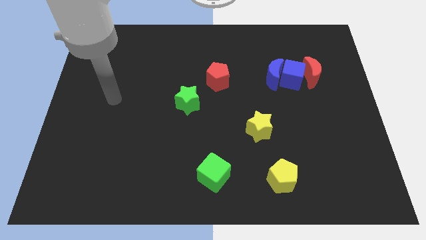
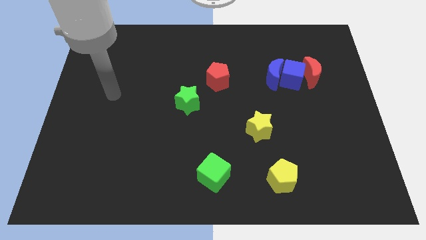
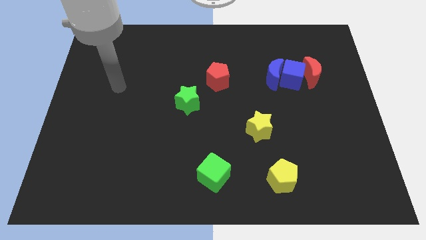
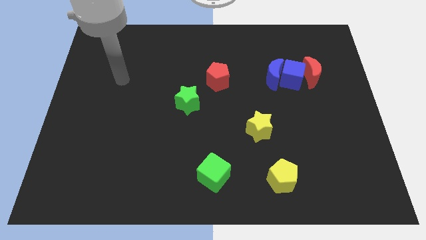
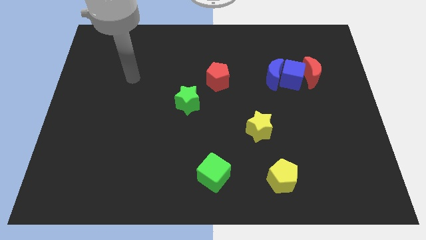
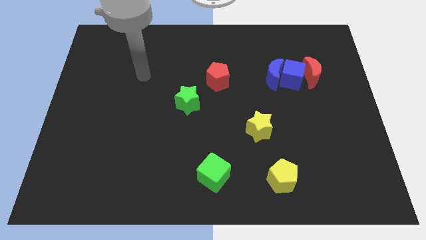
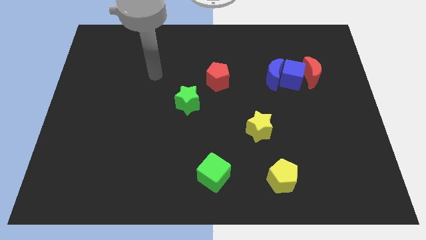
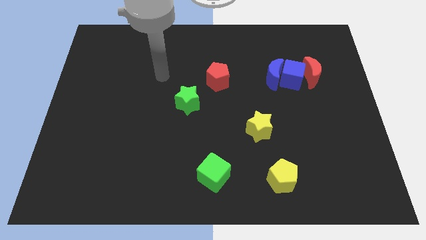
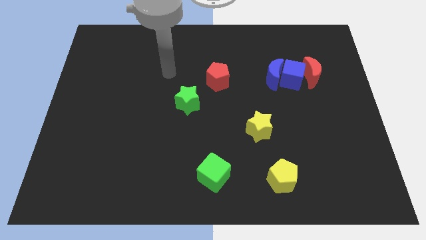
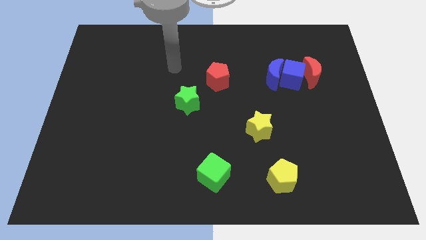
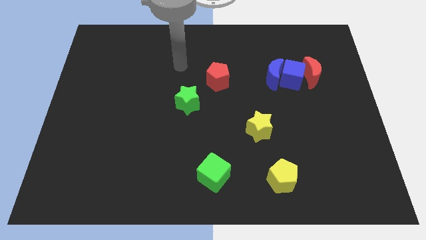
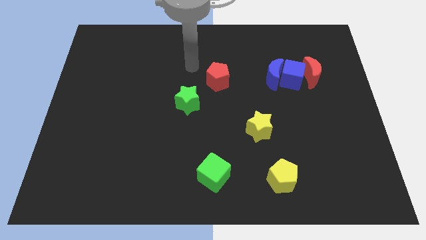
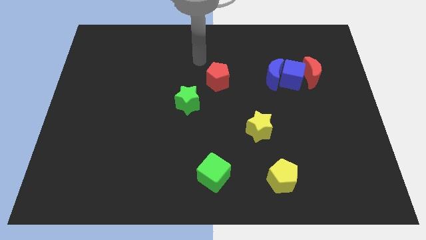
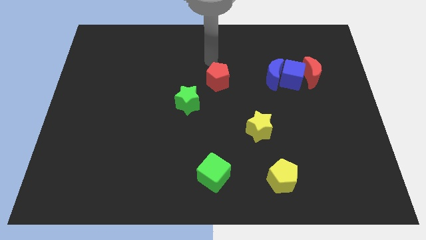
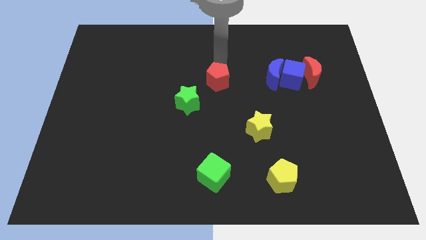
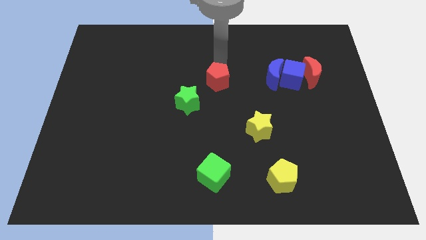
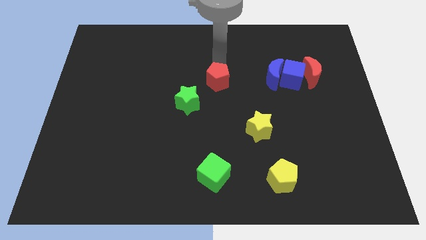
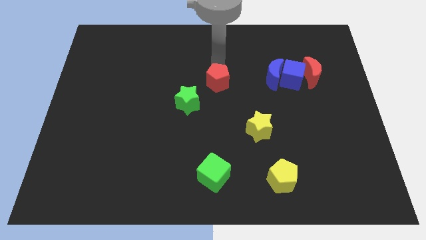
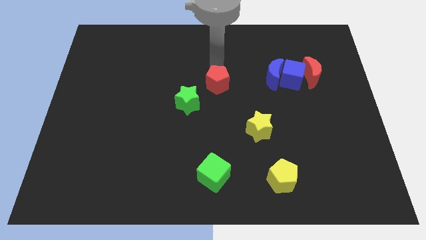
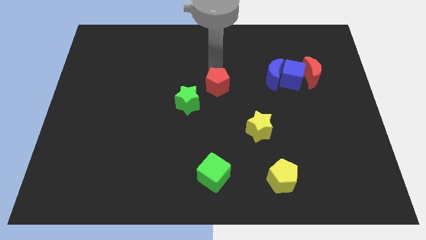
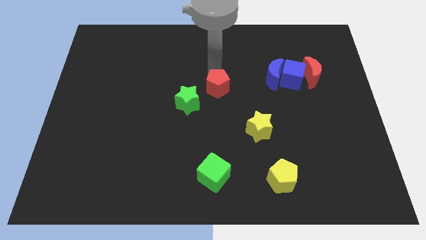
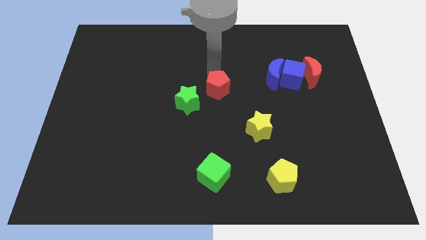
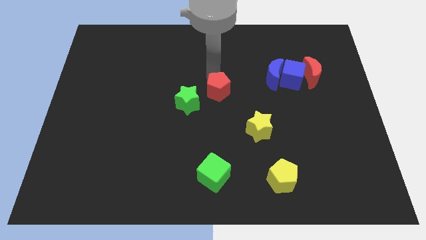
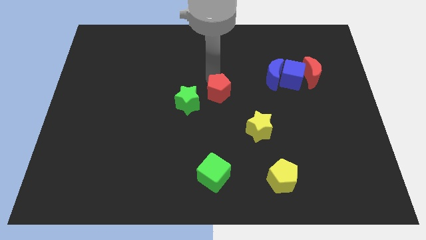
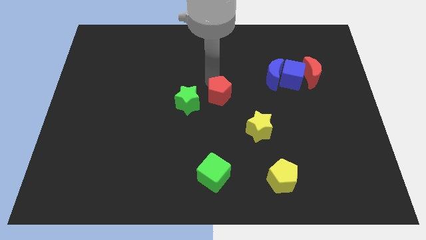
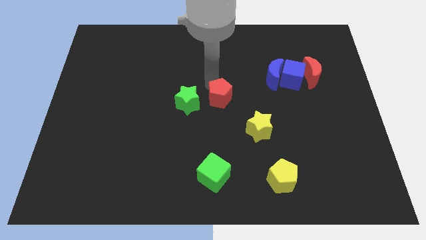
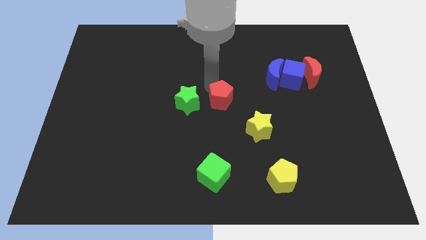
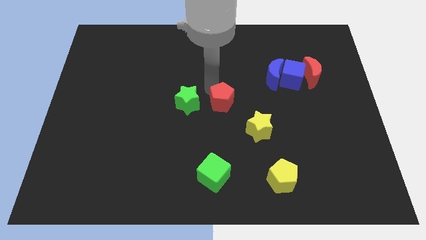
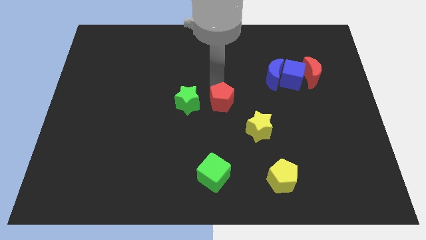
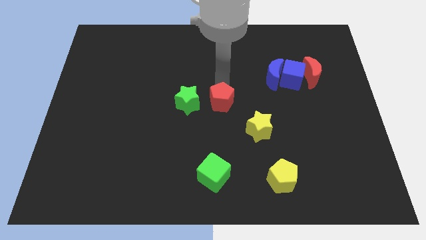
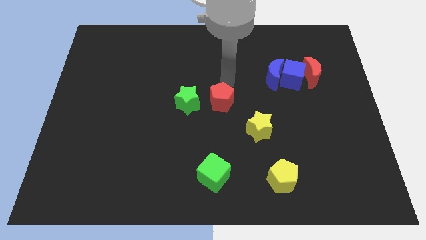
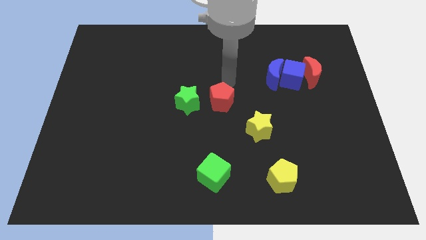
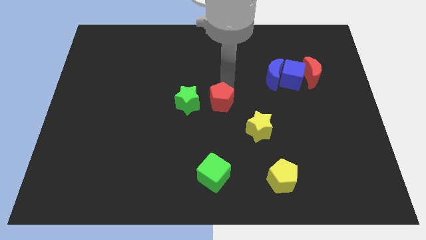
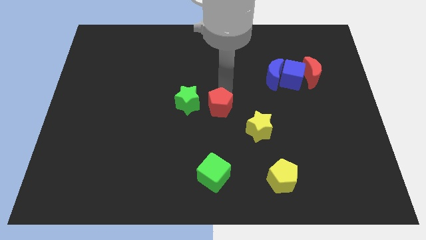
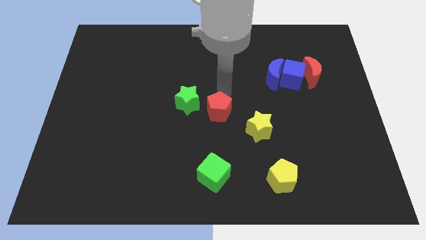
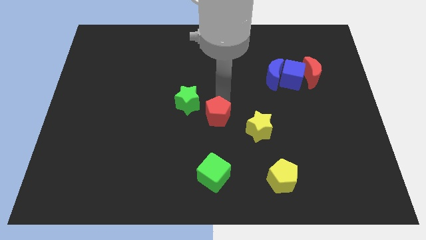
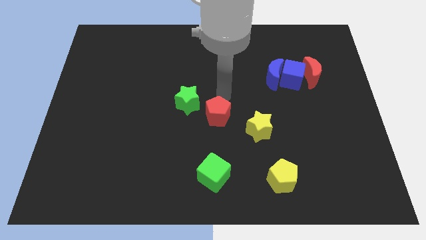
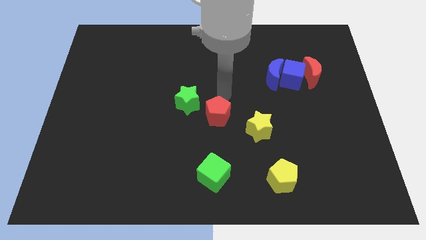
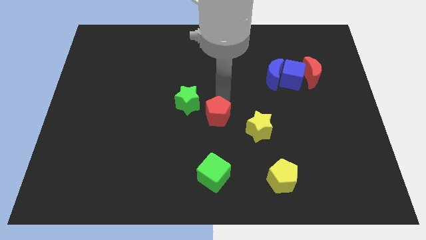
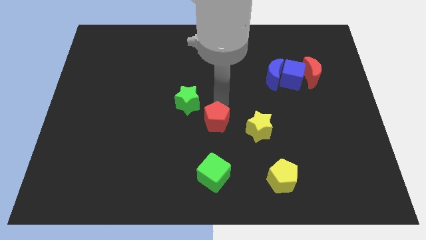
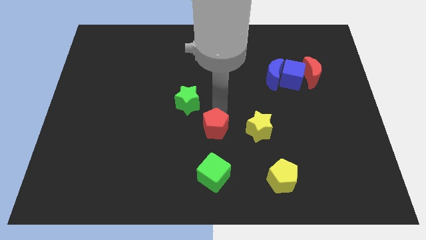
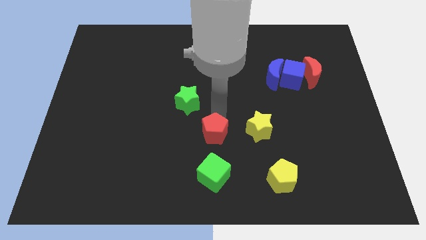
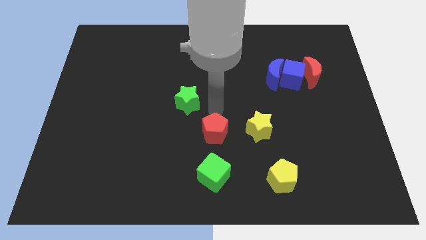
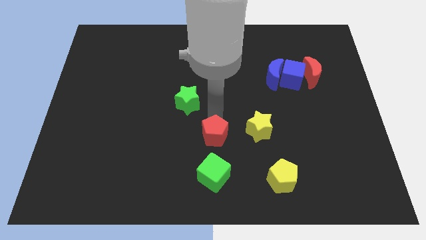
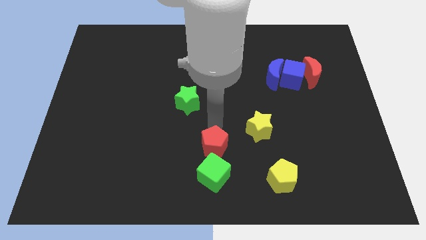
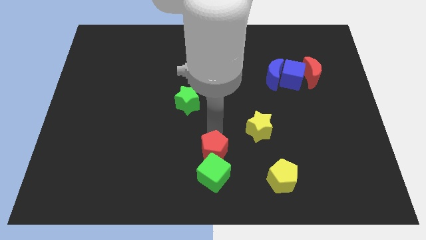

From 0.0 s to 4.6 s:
slide the red pentagon towards the green cube

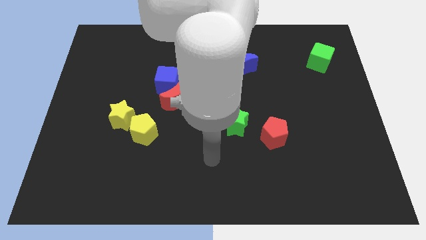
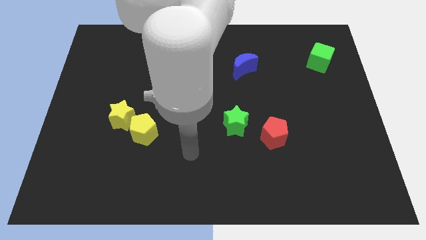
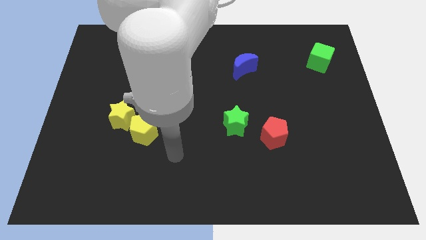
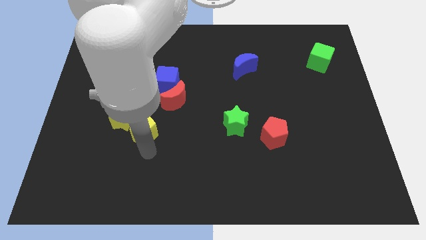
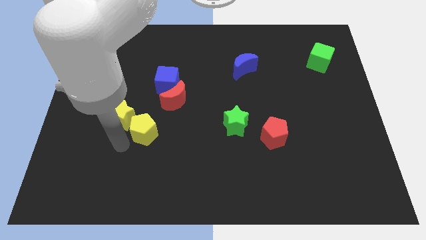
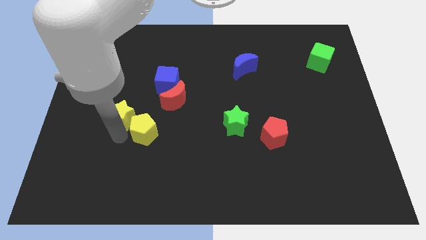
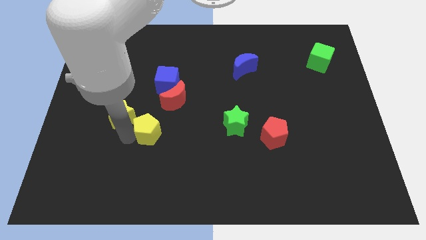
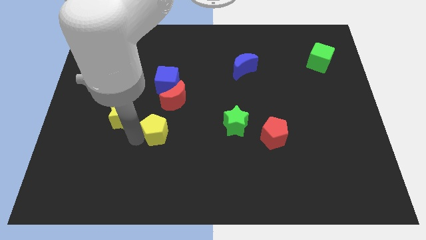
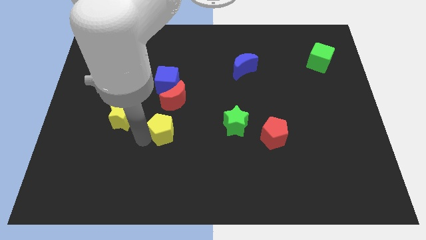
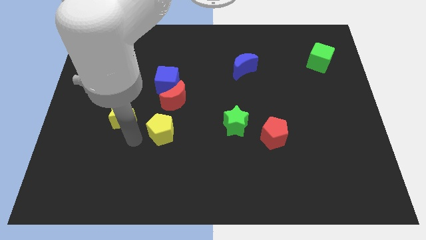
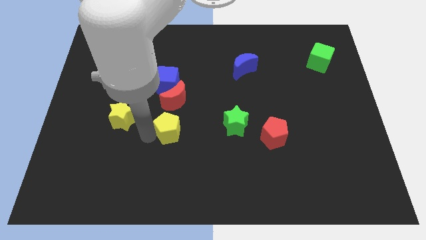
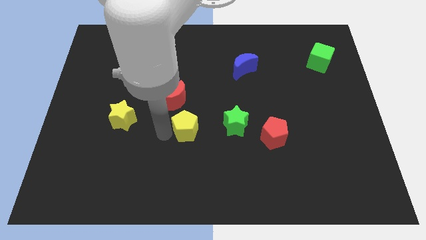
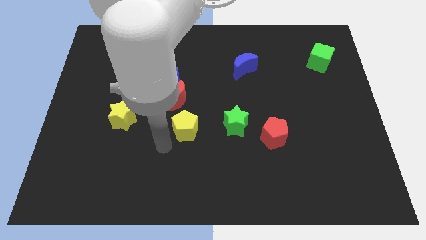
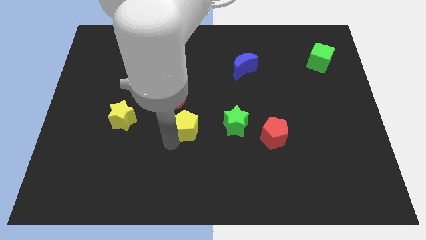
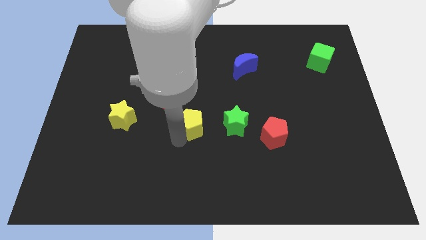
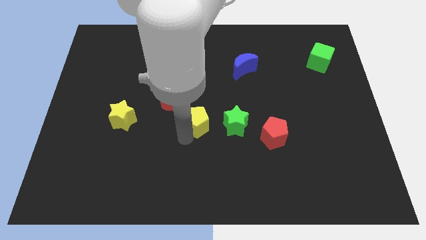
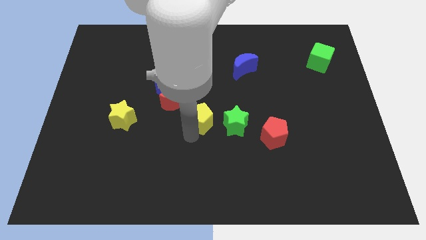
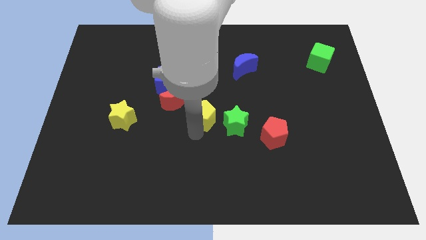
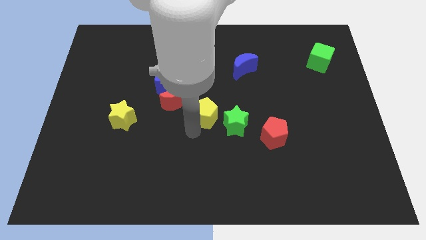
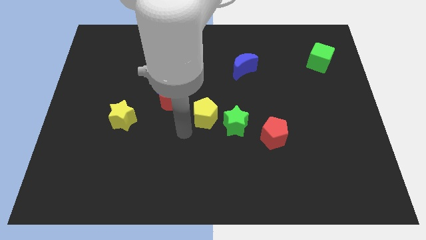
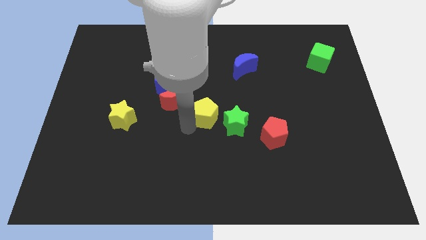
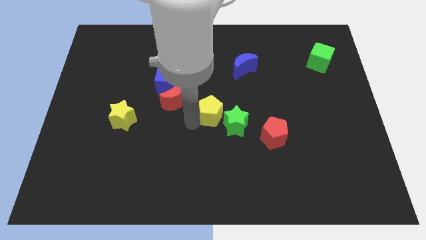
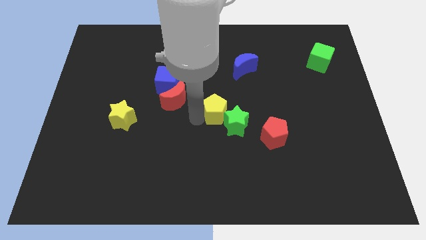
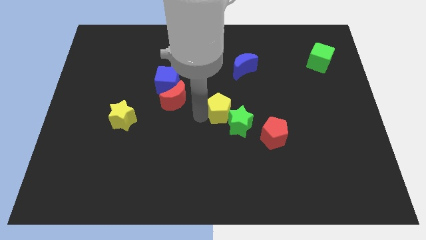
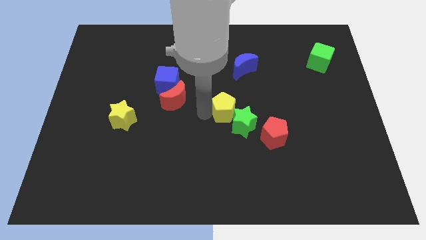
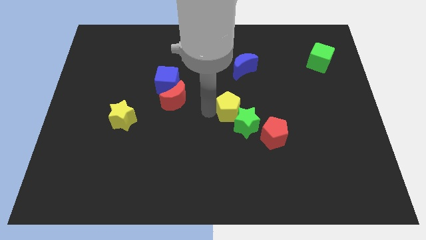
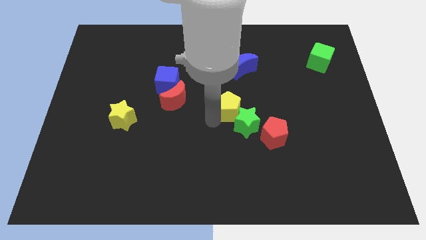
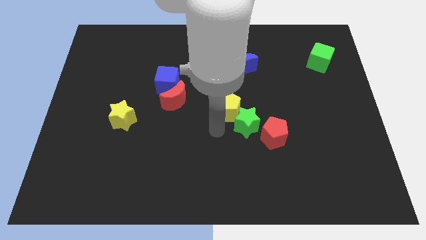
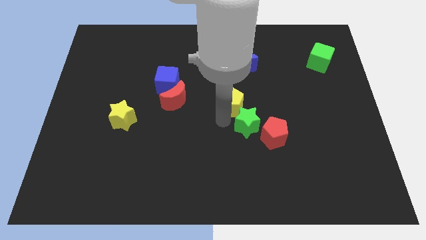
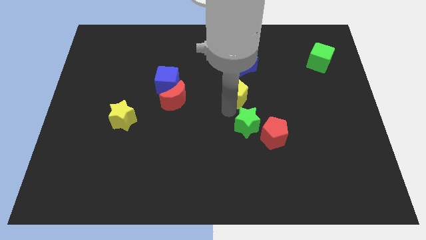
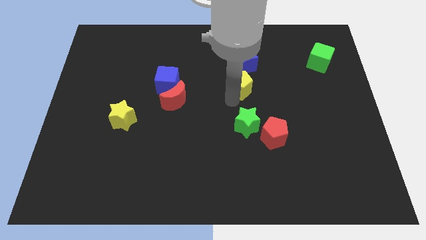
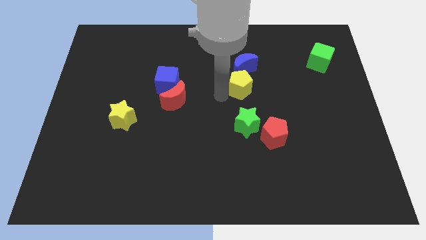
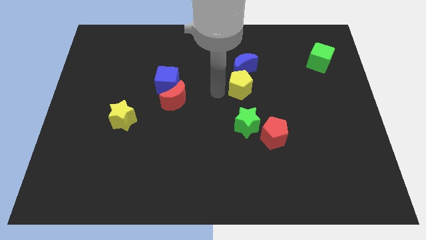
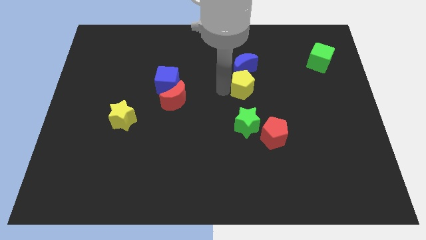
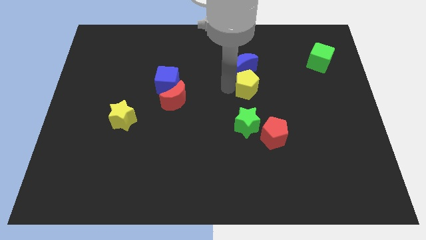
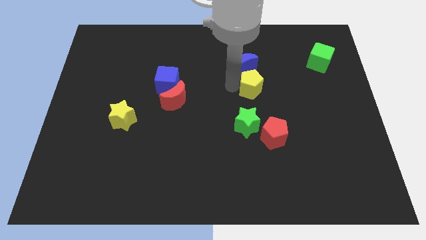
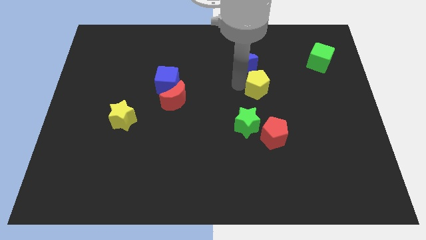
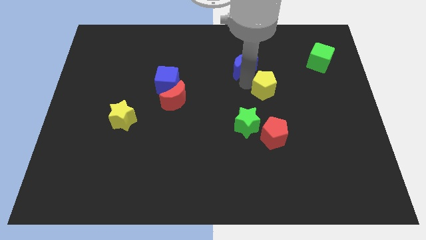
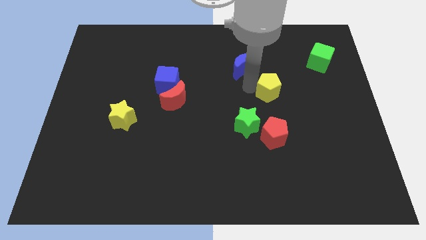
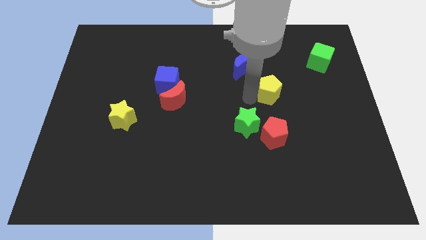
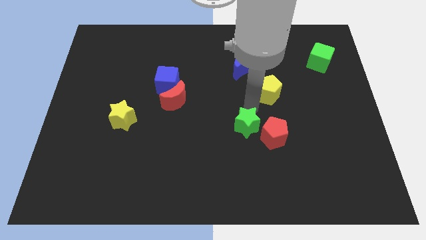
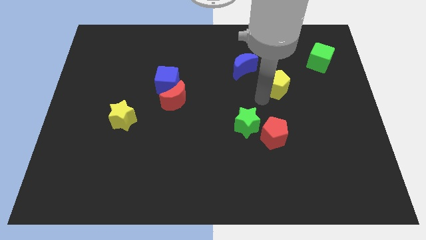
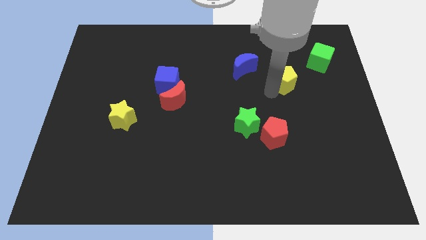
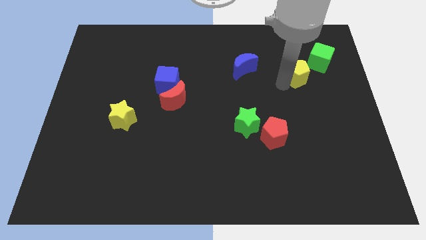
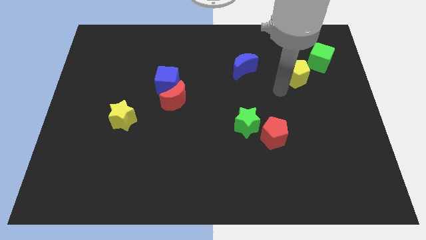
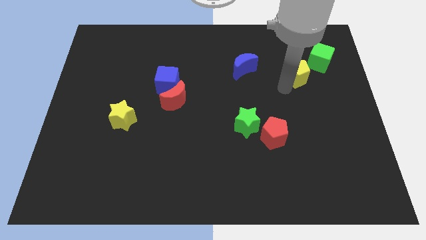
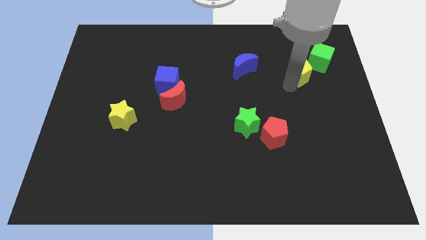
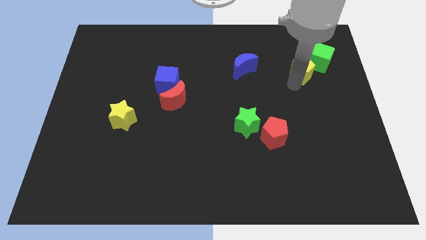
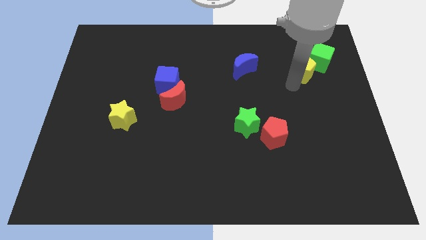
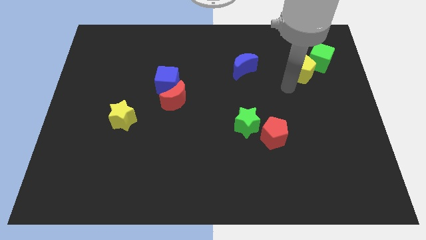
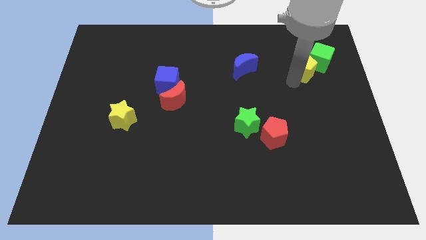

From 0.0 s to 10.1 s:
slide the yellow pentagon close to the green cube
